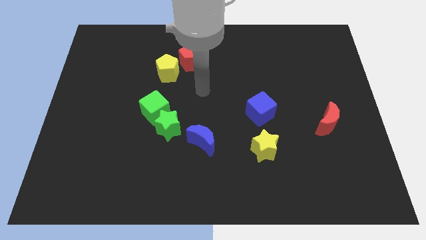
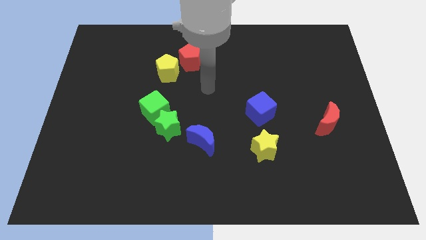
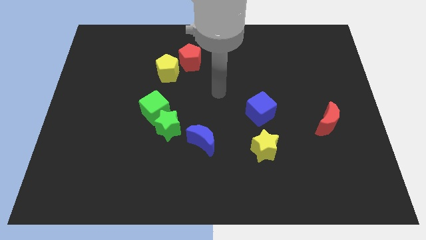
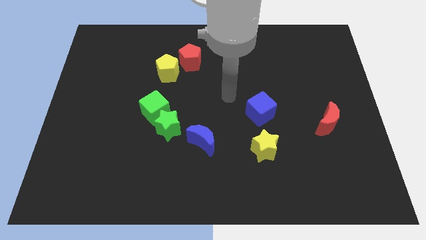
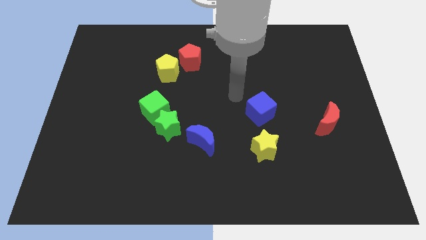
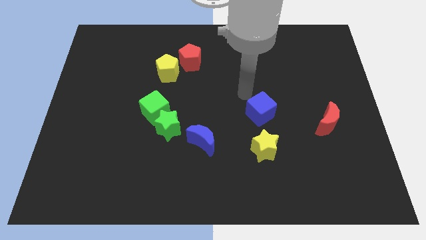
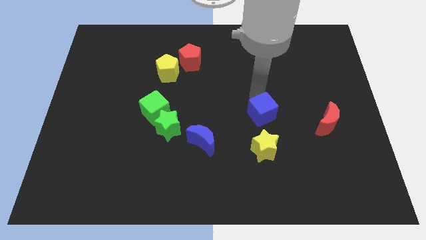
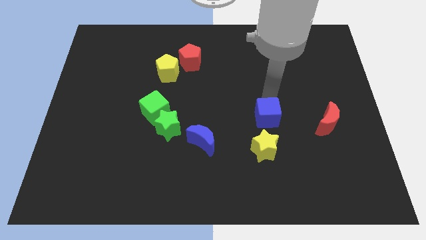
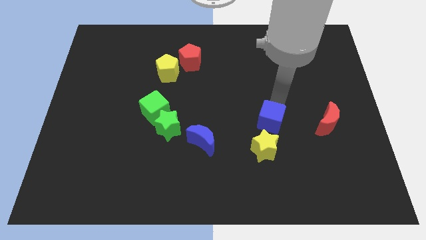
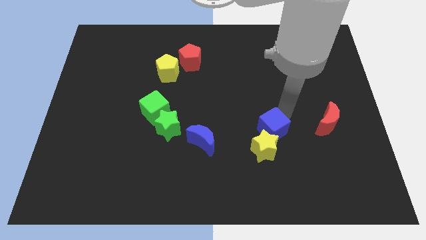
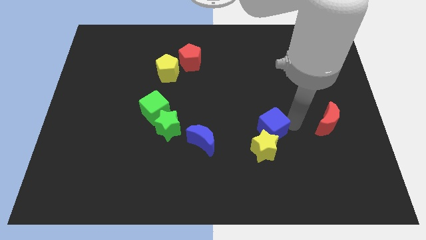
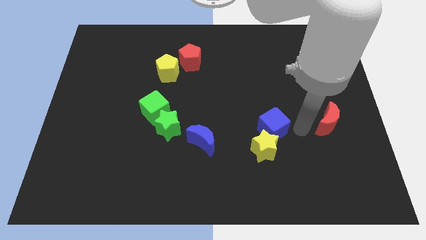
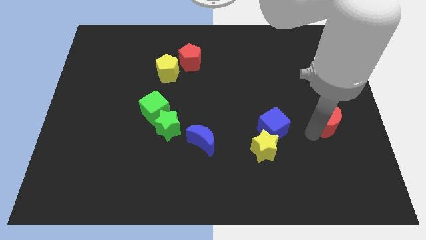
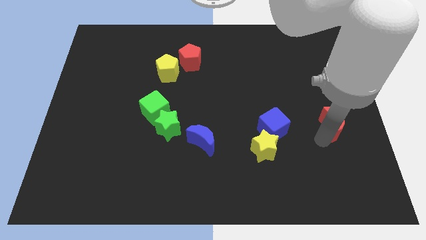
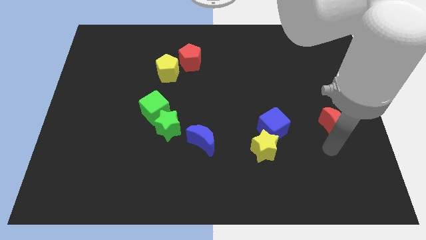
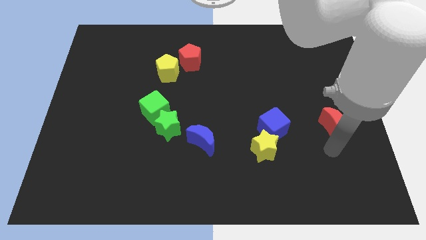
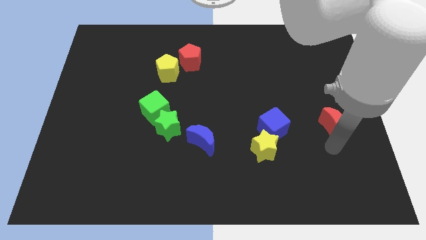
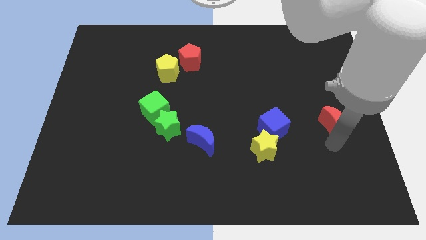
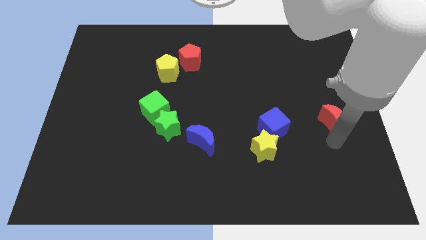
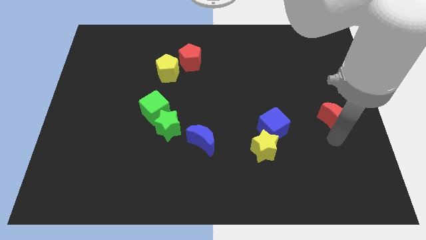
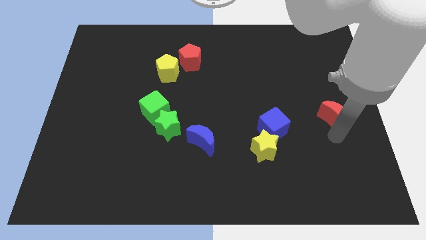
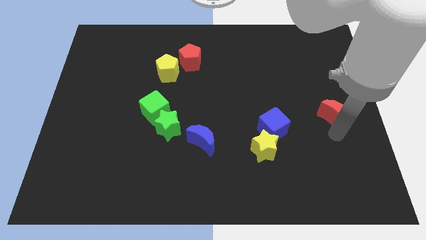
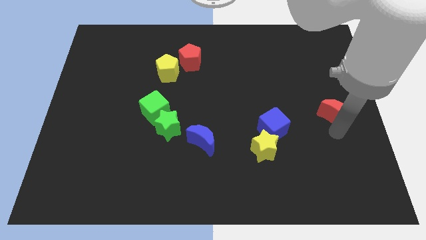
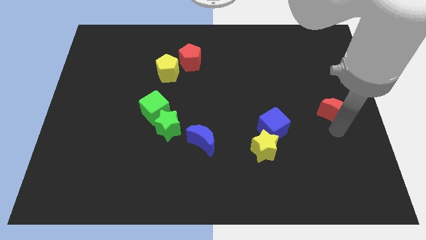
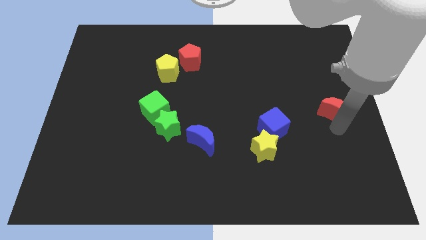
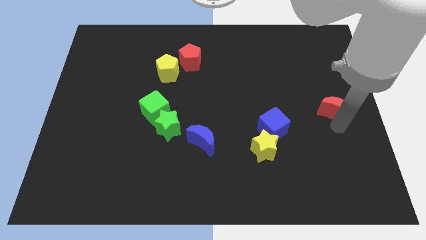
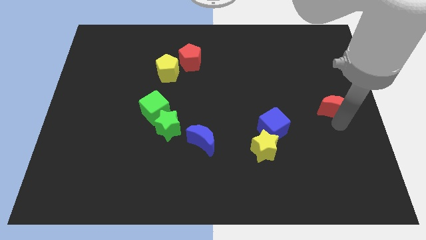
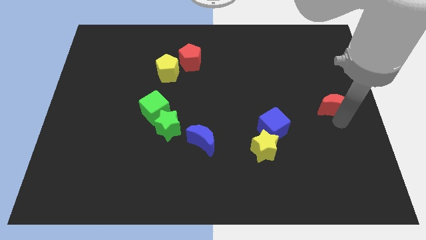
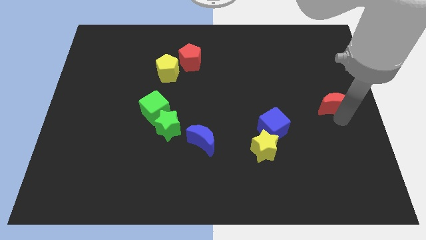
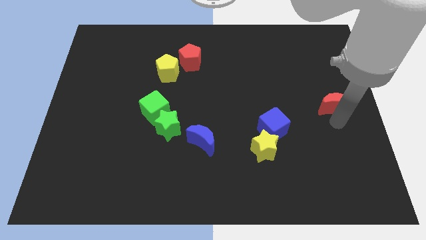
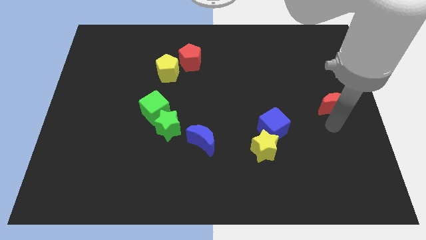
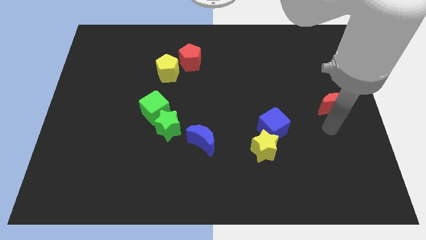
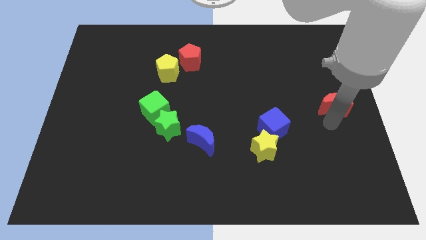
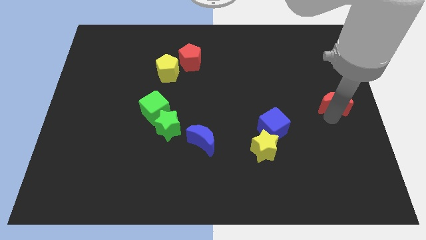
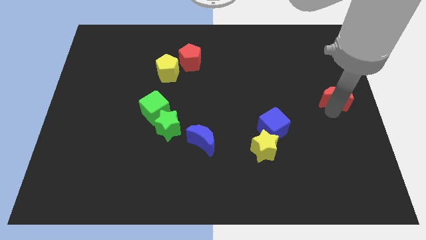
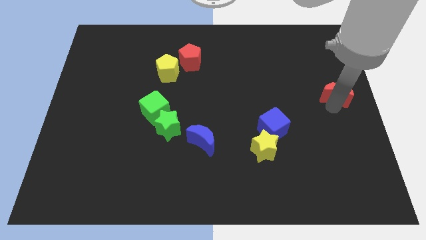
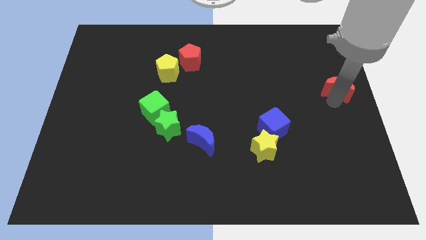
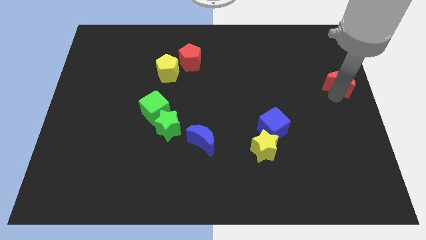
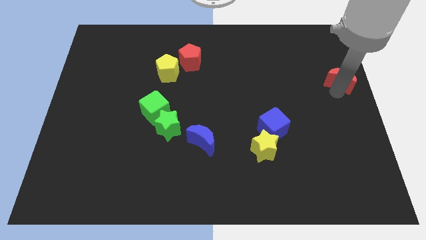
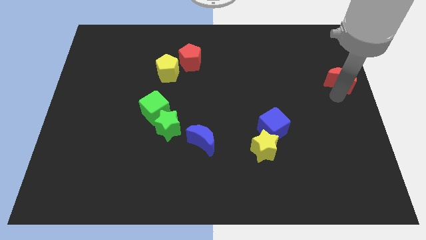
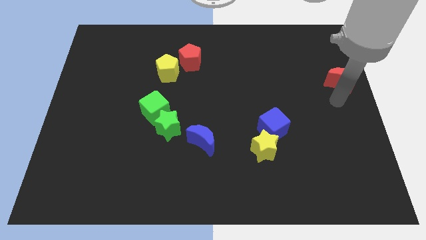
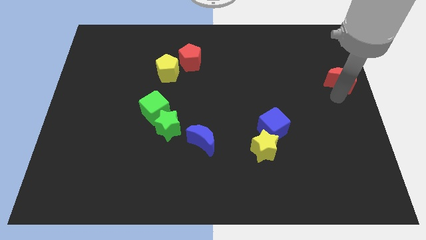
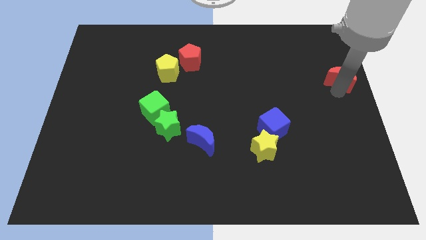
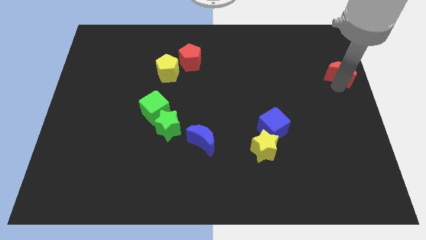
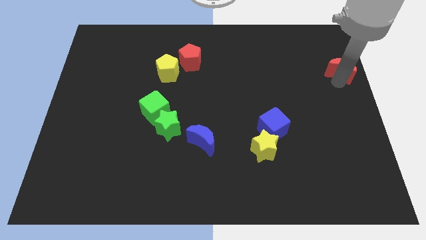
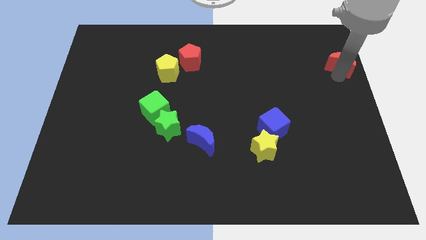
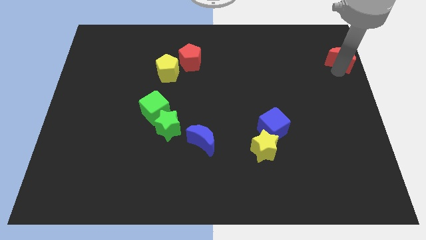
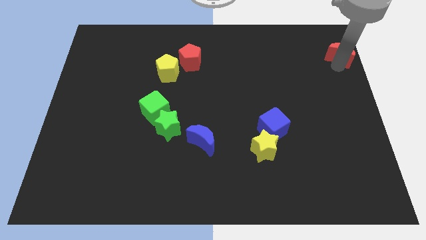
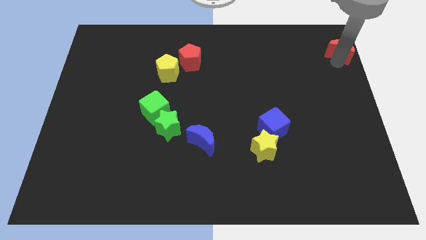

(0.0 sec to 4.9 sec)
slide the red moon to the top right

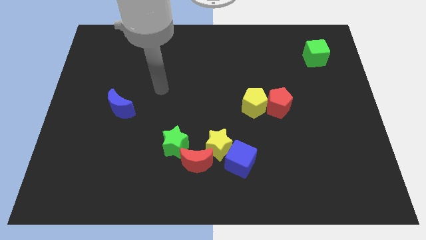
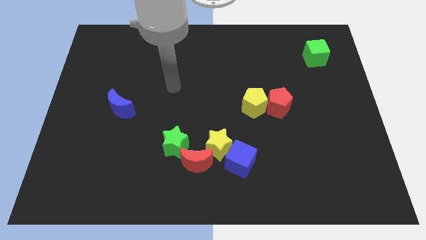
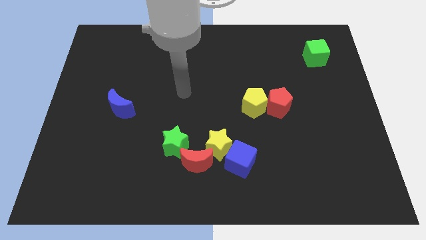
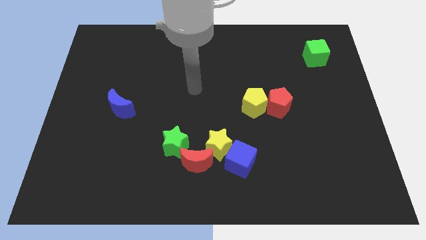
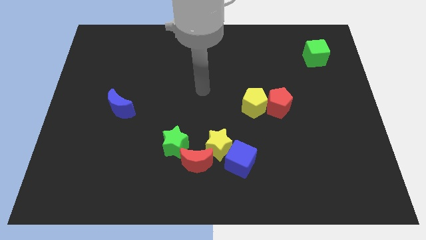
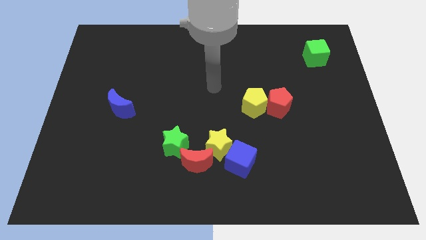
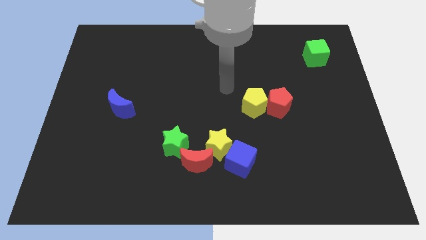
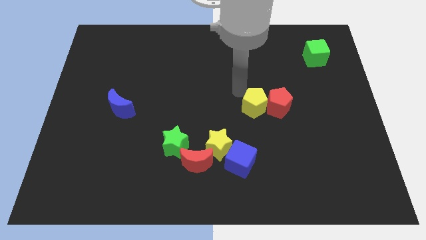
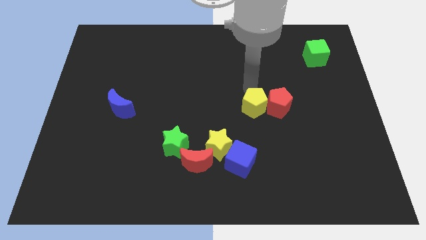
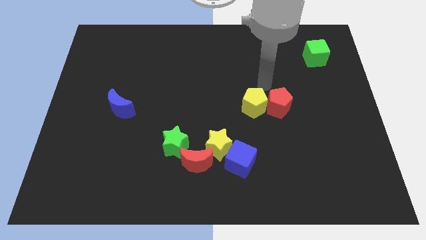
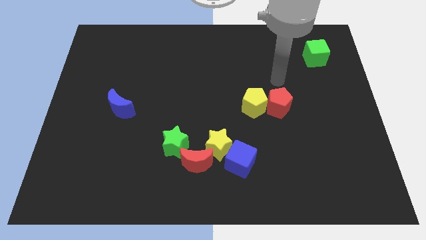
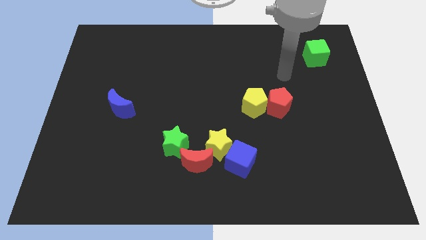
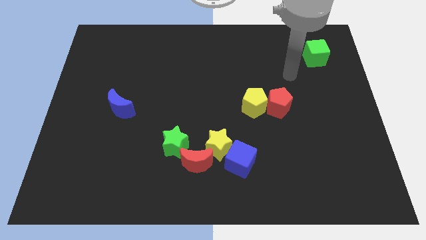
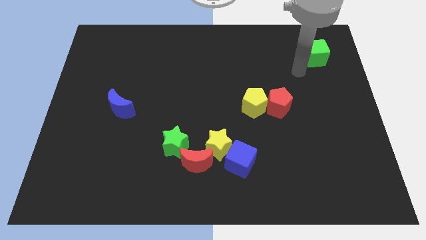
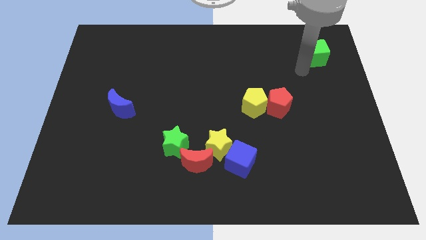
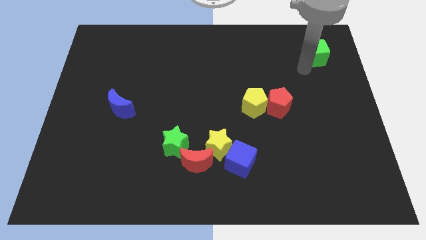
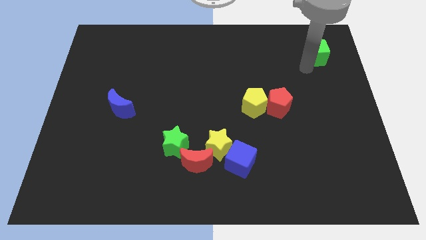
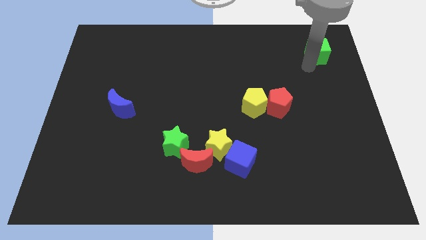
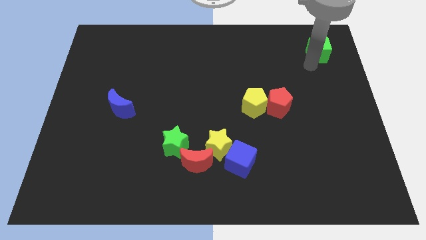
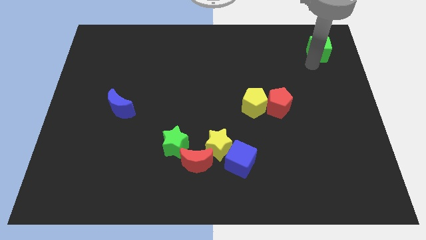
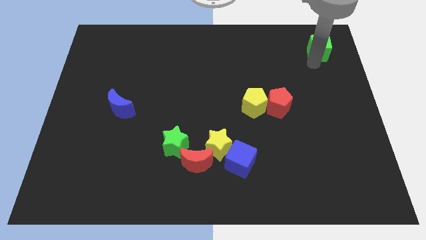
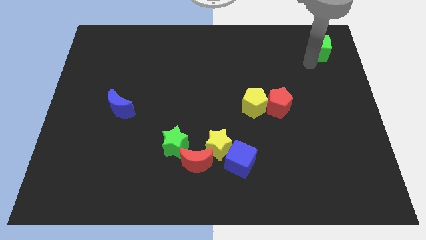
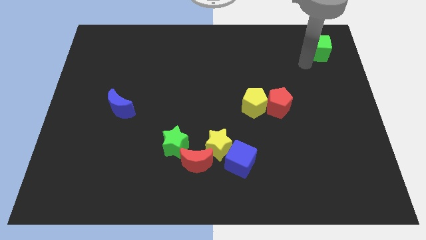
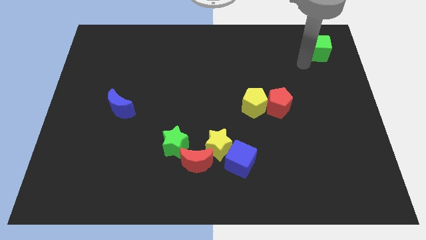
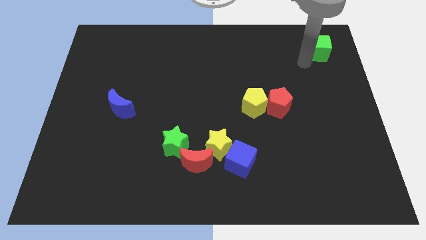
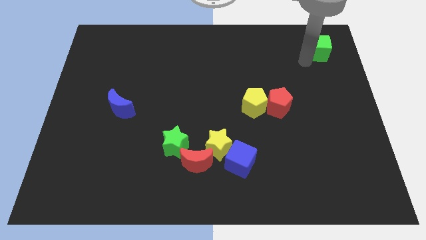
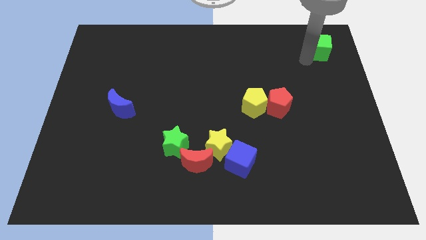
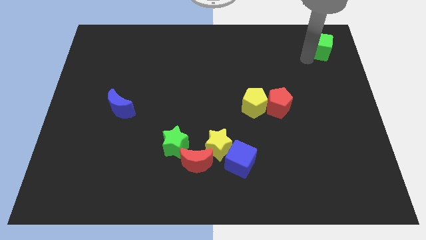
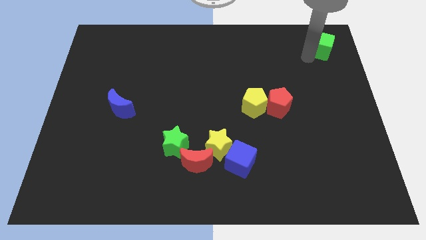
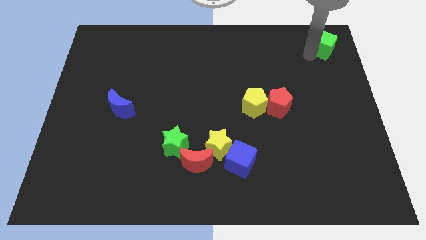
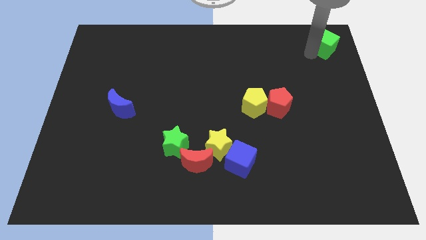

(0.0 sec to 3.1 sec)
slide the green cube to the upper right corner
